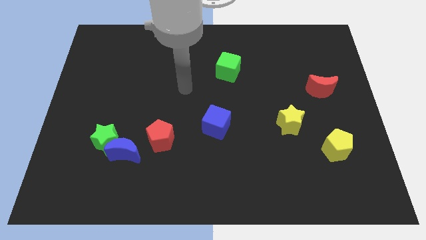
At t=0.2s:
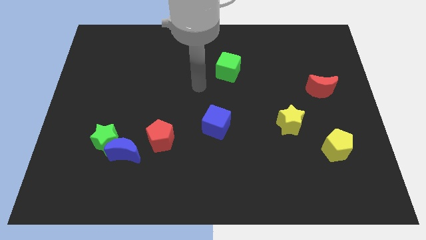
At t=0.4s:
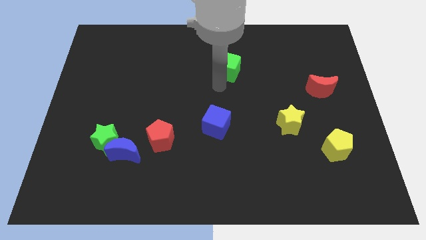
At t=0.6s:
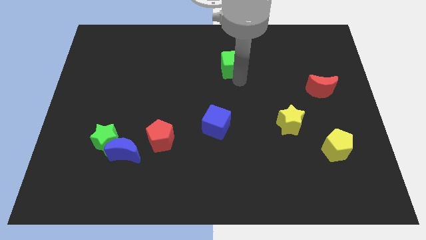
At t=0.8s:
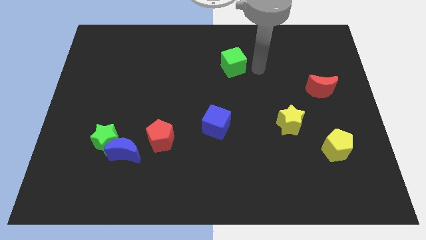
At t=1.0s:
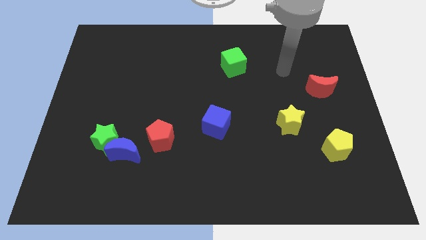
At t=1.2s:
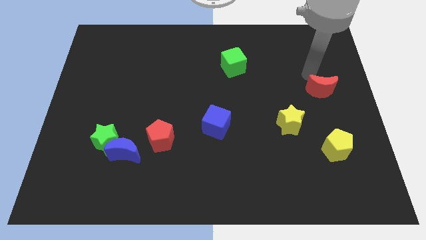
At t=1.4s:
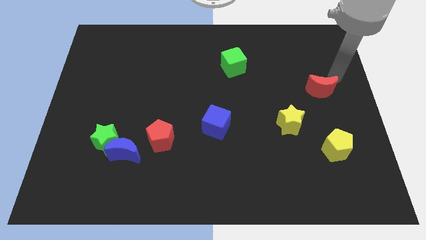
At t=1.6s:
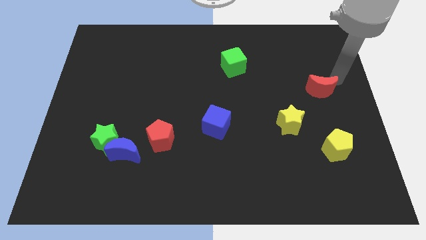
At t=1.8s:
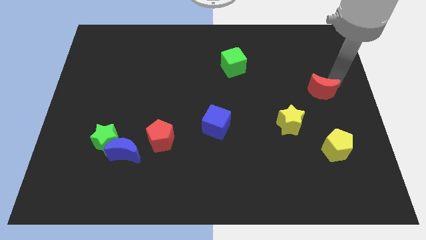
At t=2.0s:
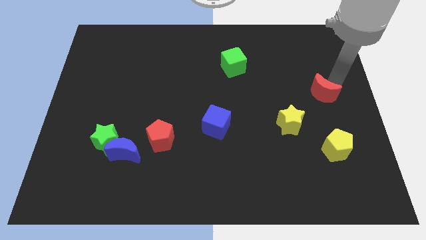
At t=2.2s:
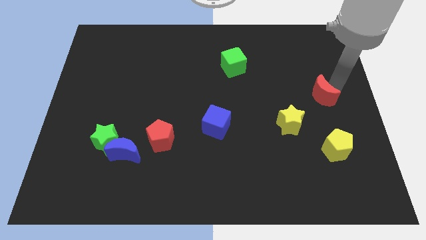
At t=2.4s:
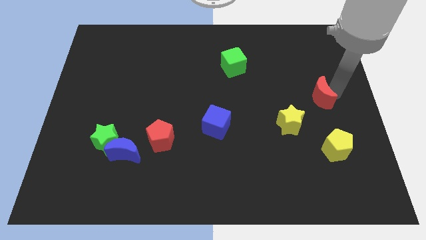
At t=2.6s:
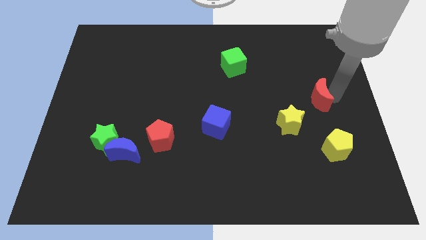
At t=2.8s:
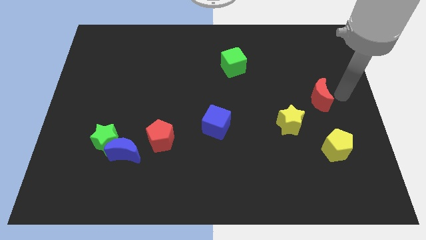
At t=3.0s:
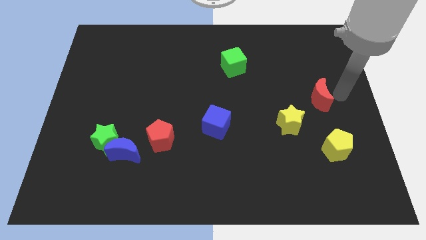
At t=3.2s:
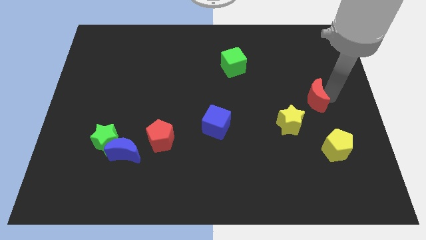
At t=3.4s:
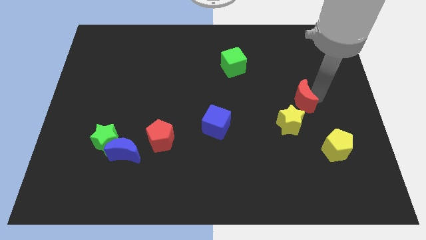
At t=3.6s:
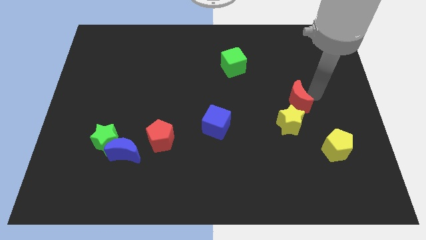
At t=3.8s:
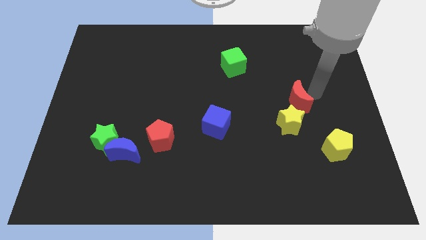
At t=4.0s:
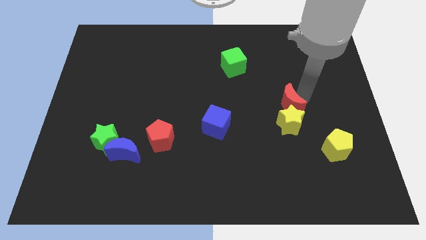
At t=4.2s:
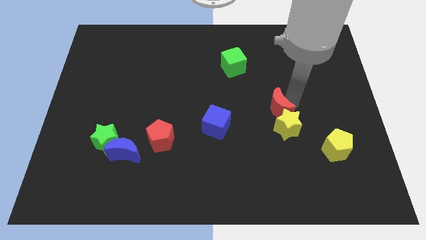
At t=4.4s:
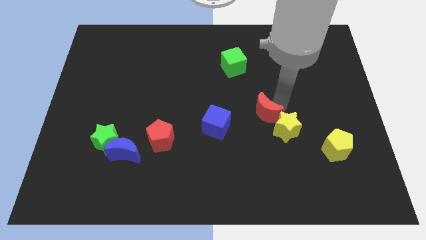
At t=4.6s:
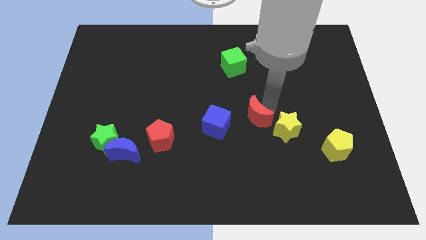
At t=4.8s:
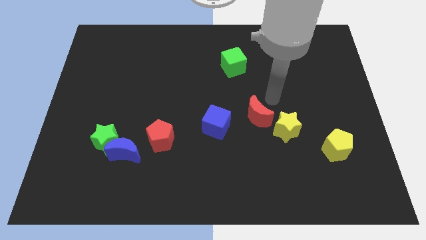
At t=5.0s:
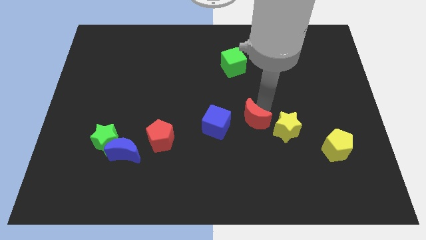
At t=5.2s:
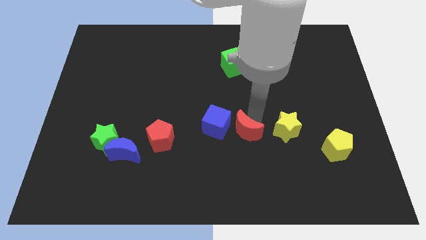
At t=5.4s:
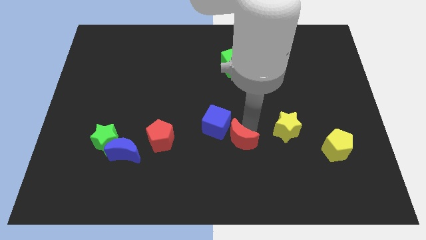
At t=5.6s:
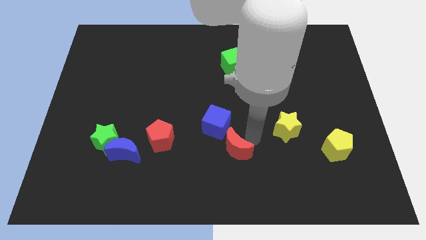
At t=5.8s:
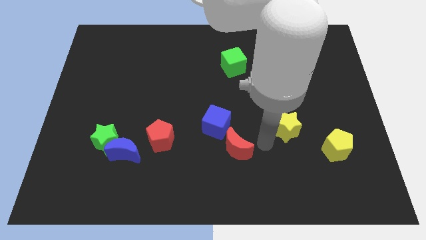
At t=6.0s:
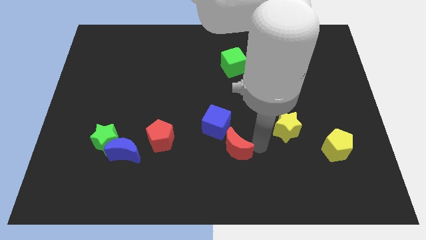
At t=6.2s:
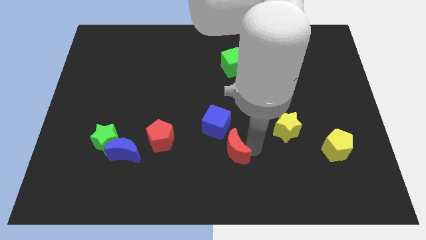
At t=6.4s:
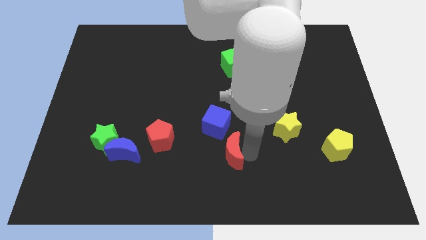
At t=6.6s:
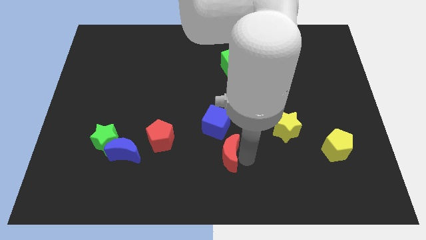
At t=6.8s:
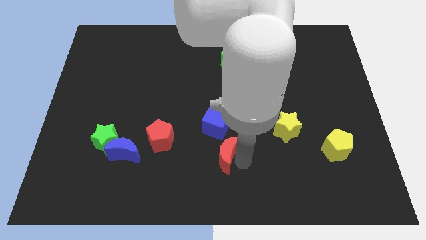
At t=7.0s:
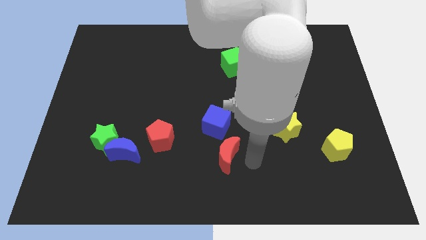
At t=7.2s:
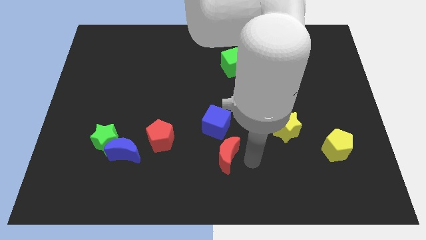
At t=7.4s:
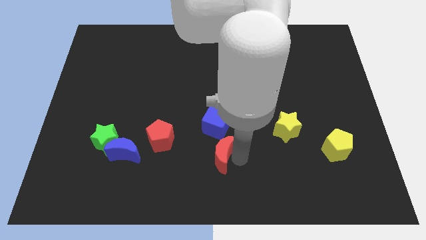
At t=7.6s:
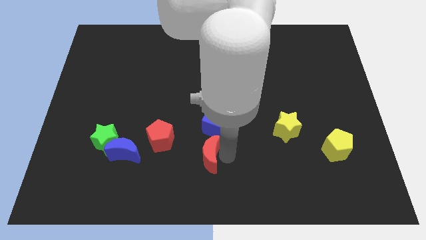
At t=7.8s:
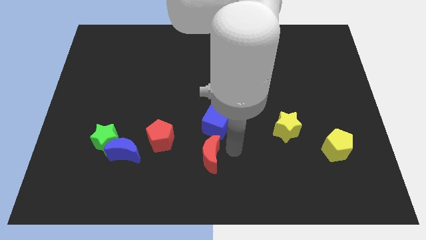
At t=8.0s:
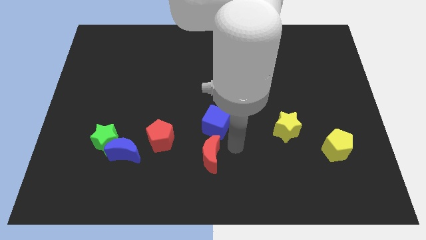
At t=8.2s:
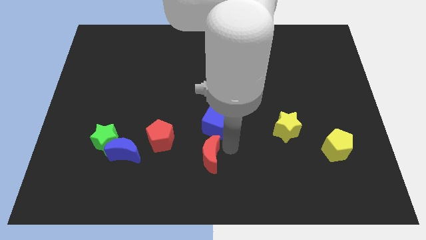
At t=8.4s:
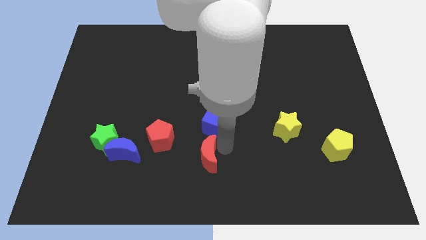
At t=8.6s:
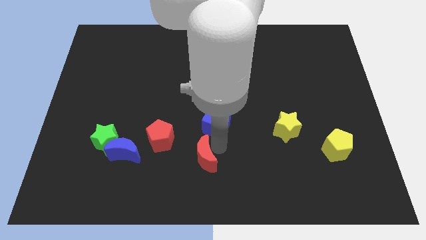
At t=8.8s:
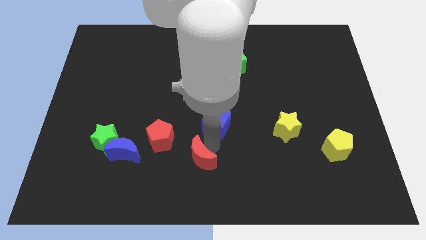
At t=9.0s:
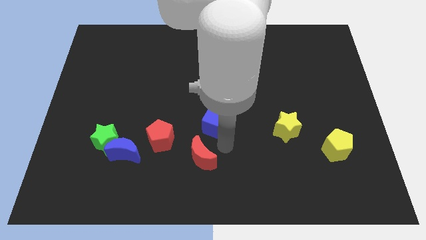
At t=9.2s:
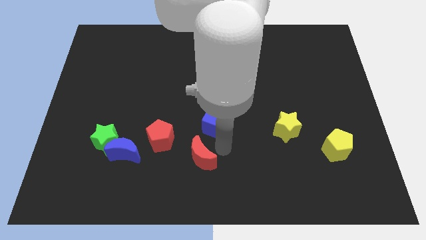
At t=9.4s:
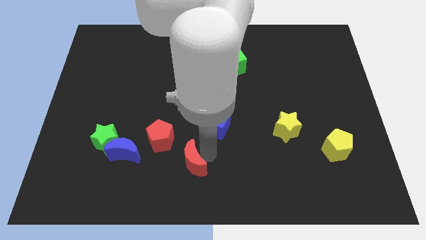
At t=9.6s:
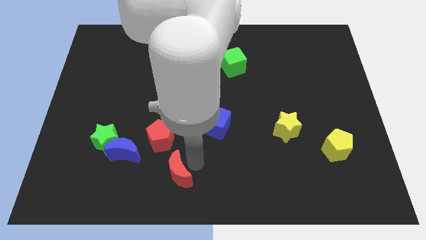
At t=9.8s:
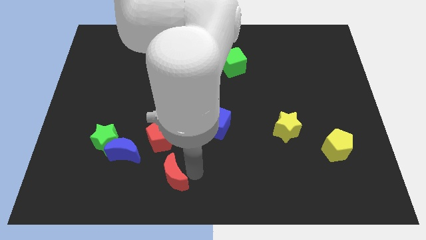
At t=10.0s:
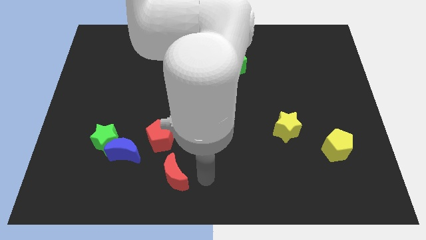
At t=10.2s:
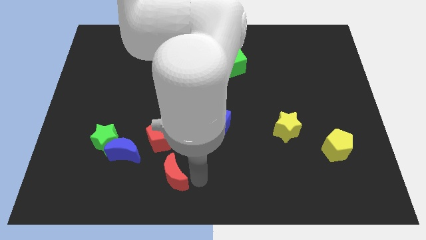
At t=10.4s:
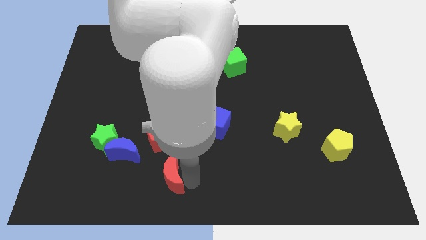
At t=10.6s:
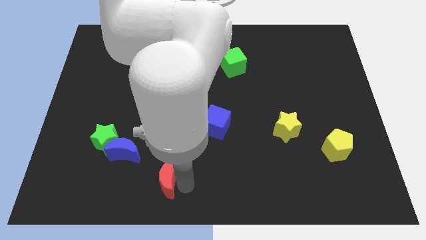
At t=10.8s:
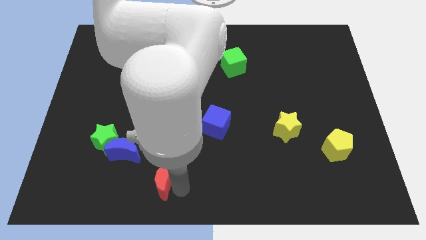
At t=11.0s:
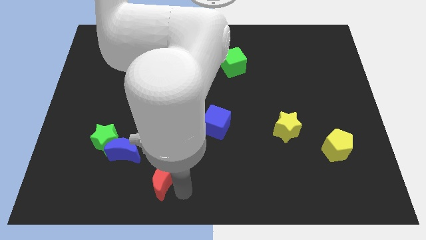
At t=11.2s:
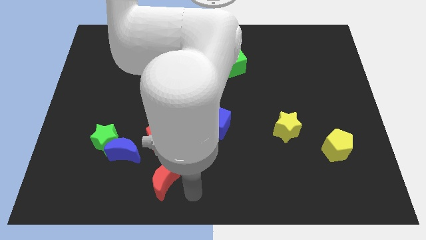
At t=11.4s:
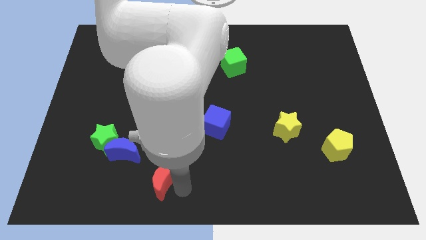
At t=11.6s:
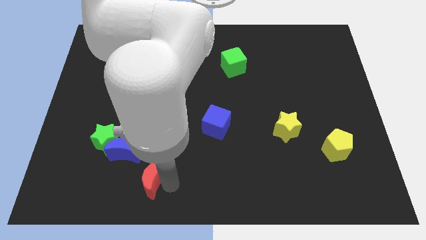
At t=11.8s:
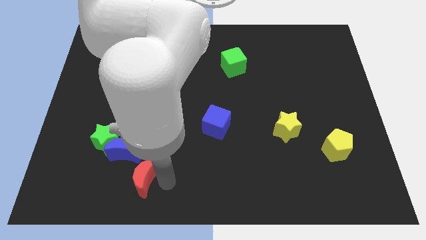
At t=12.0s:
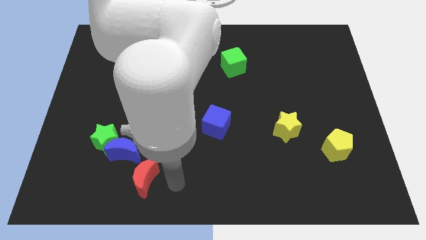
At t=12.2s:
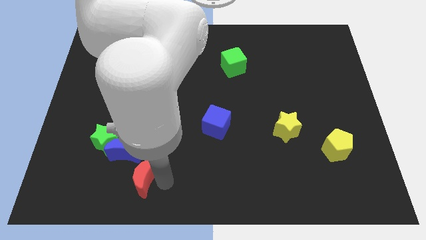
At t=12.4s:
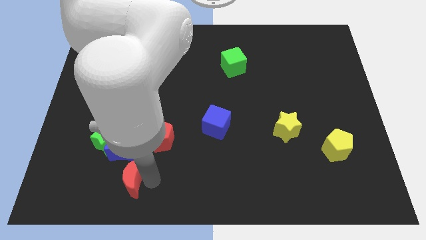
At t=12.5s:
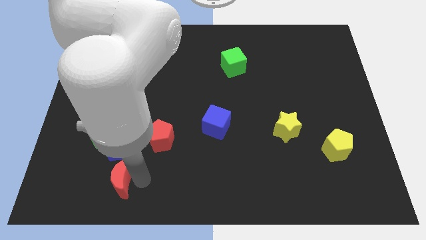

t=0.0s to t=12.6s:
push the red moon to the bottom left side of the blue moon

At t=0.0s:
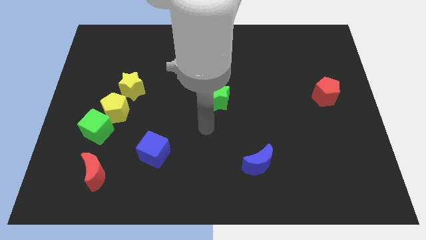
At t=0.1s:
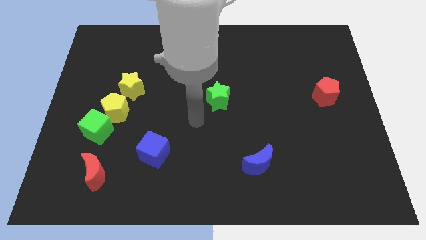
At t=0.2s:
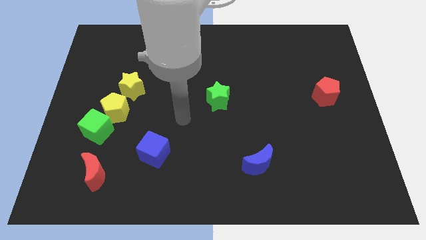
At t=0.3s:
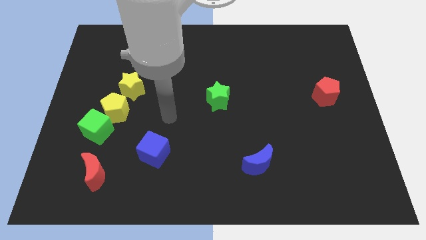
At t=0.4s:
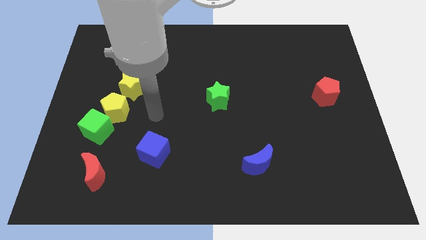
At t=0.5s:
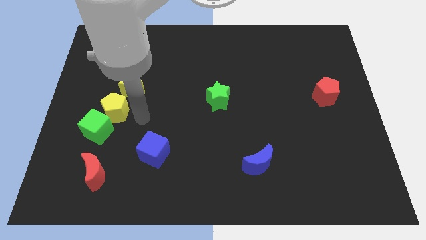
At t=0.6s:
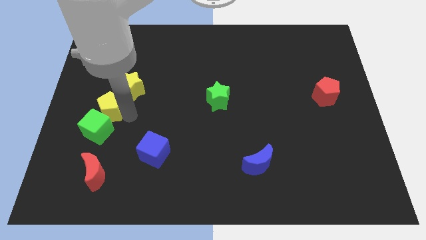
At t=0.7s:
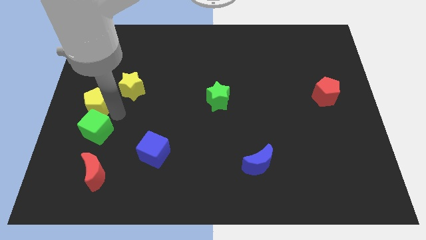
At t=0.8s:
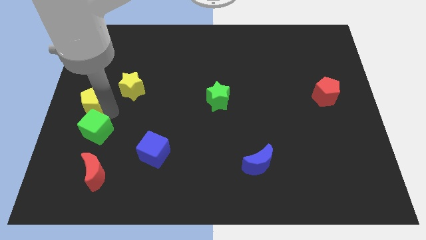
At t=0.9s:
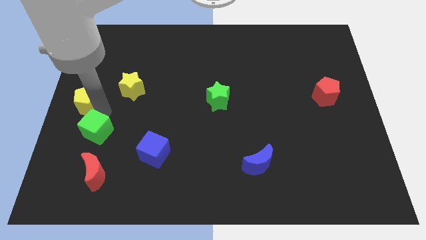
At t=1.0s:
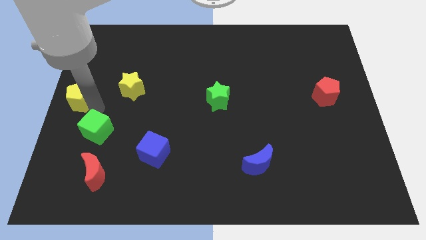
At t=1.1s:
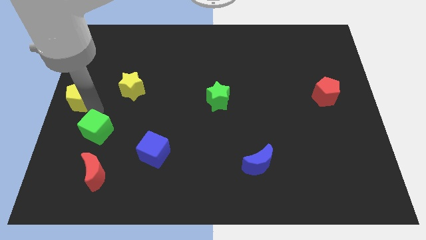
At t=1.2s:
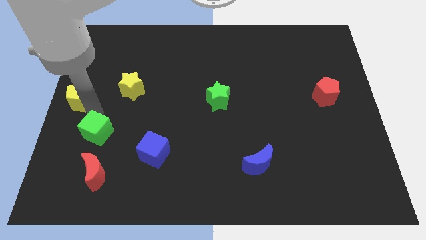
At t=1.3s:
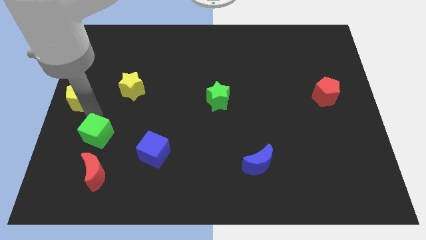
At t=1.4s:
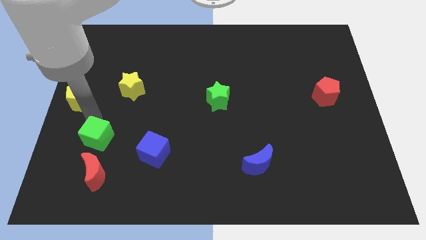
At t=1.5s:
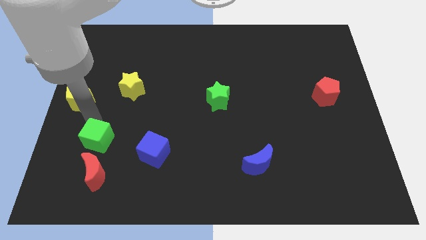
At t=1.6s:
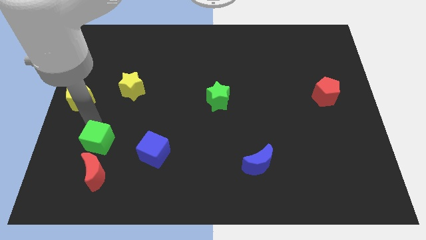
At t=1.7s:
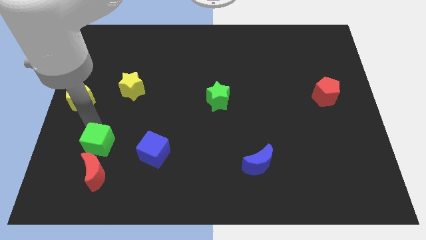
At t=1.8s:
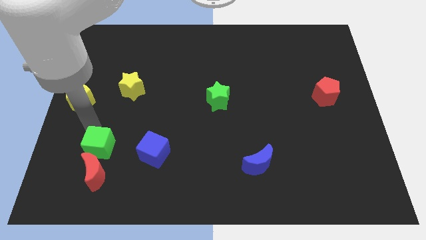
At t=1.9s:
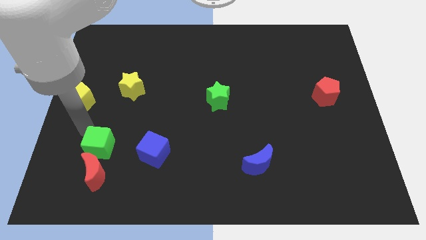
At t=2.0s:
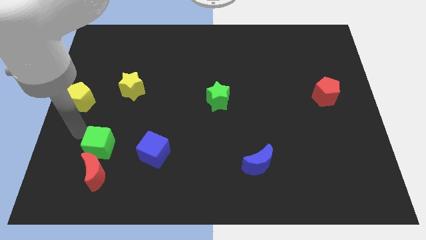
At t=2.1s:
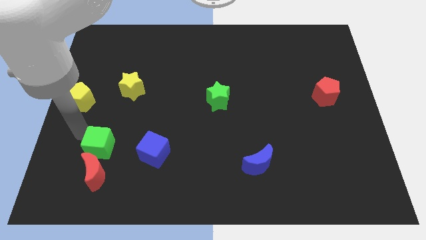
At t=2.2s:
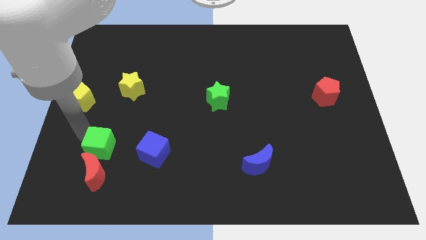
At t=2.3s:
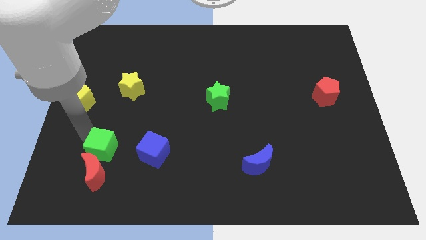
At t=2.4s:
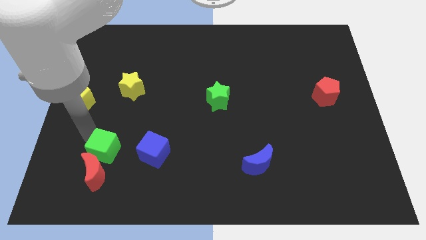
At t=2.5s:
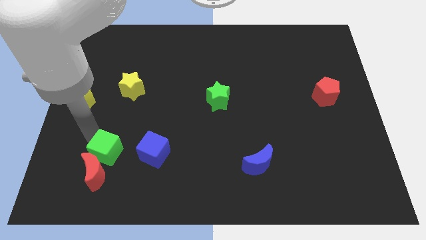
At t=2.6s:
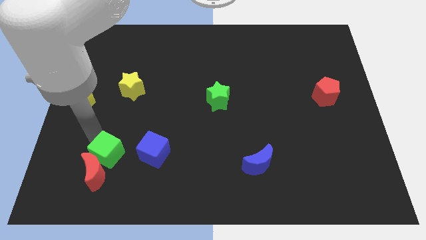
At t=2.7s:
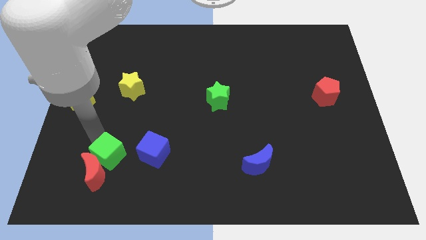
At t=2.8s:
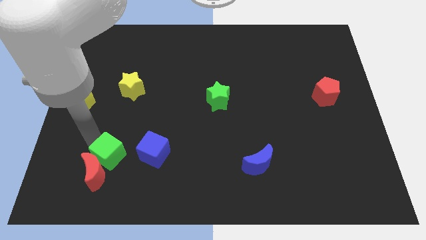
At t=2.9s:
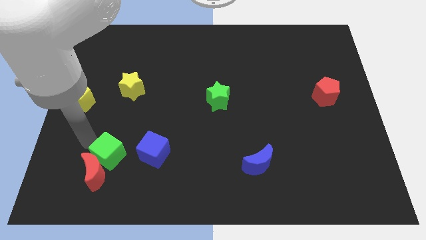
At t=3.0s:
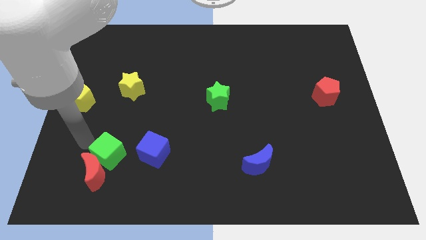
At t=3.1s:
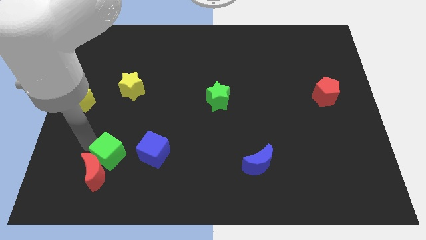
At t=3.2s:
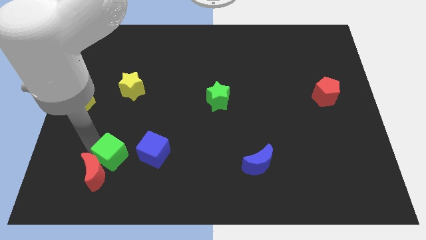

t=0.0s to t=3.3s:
slide the green cube to the right side of the red moon
